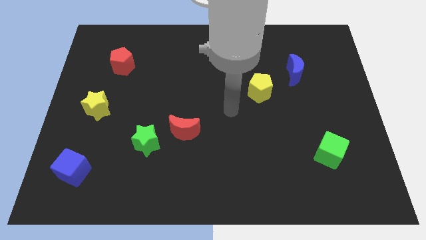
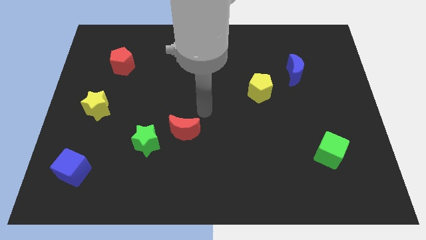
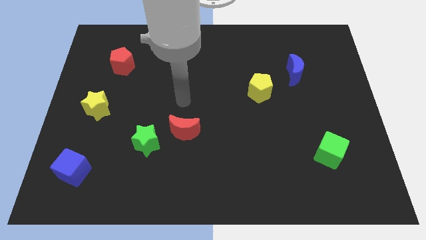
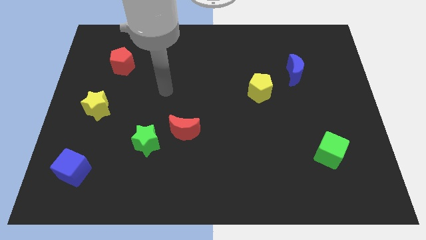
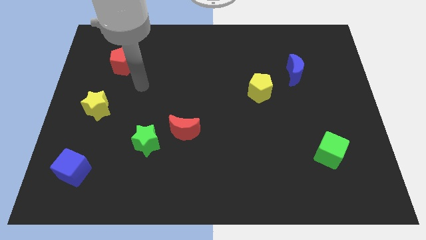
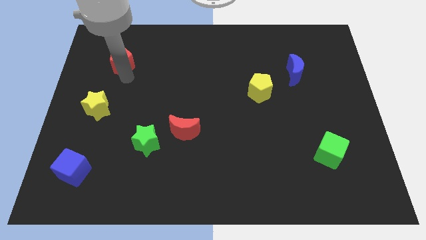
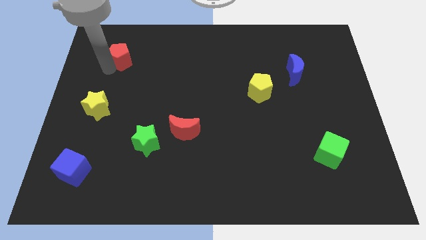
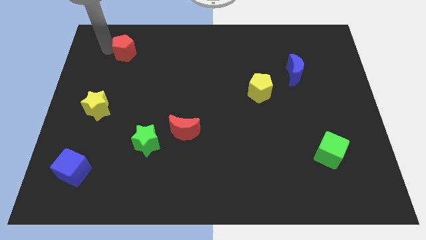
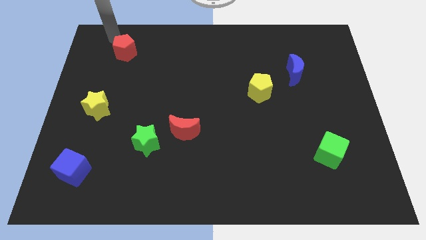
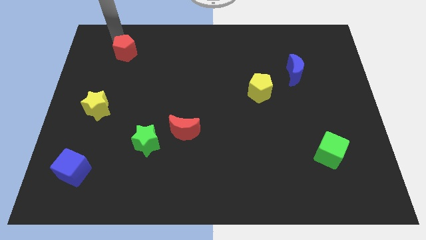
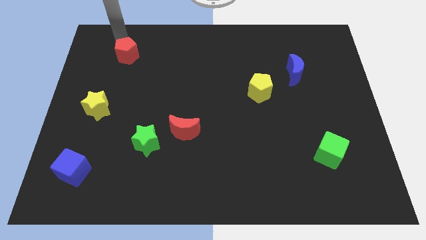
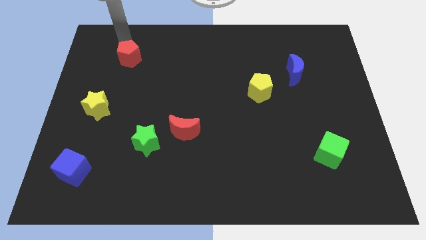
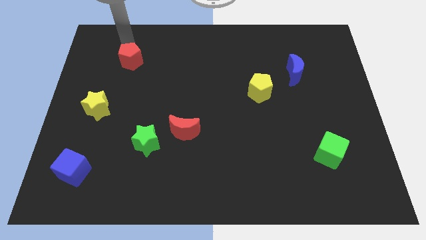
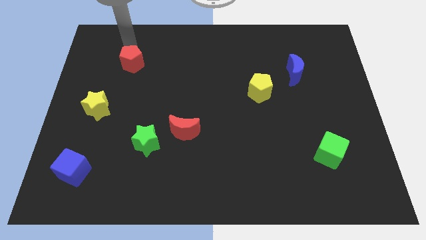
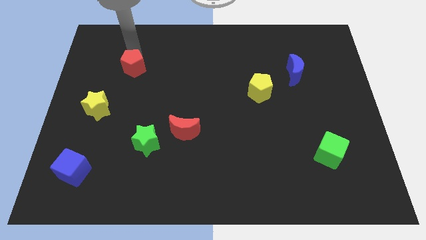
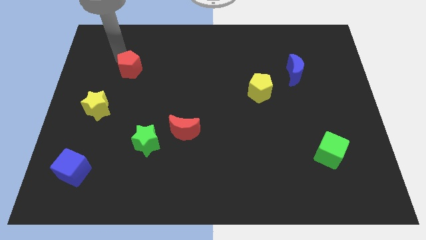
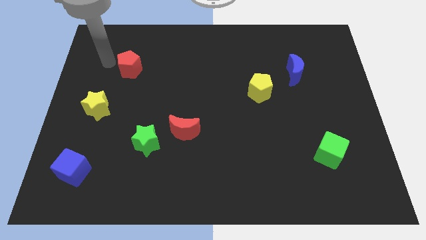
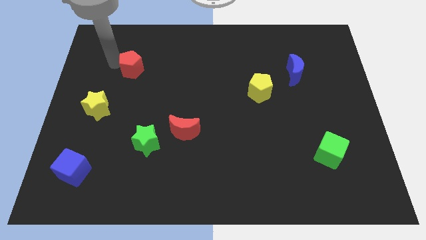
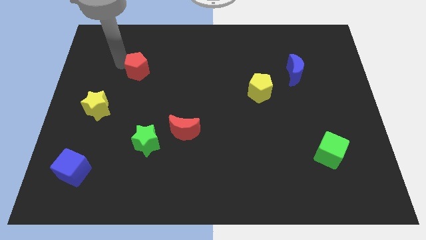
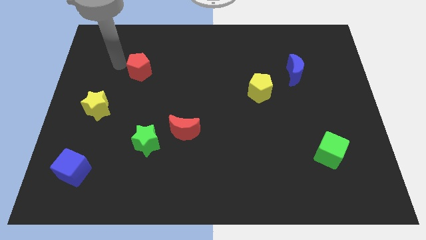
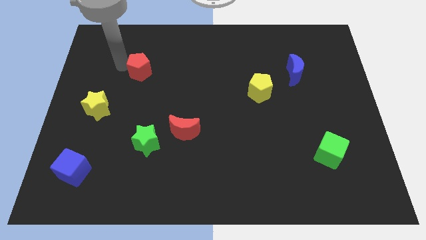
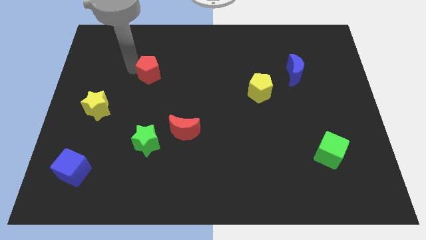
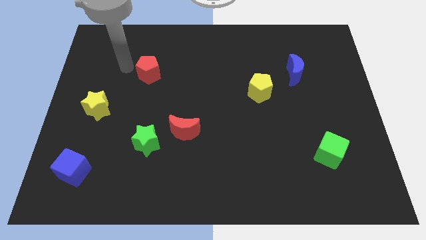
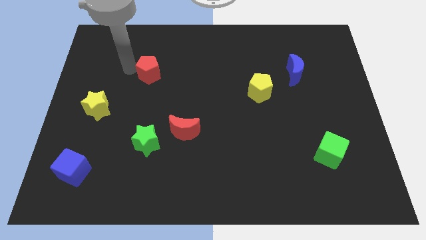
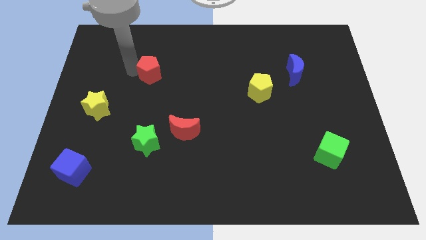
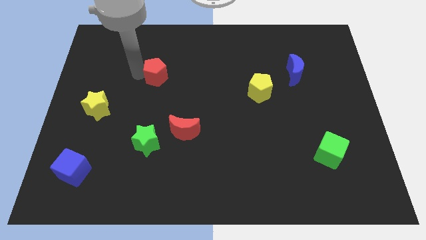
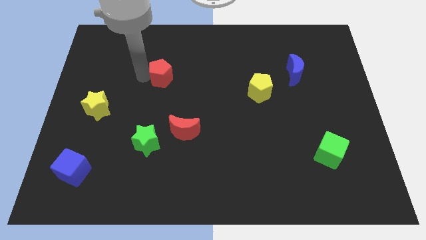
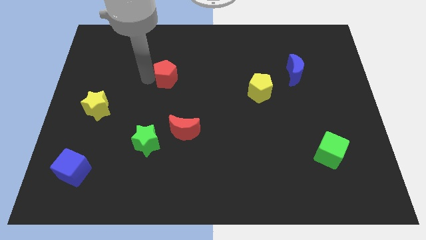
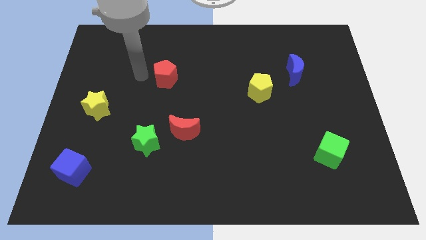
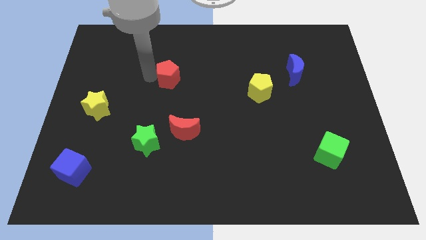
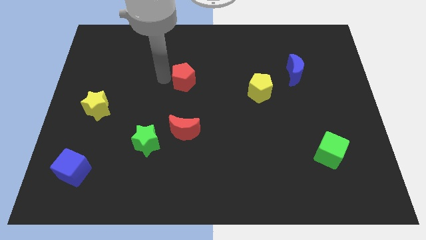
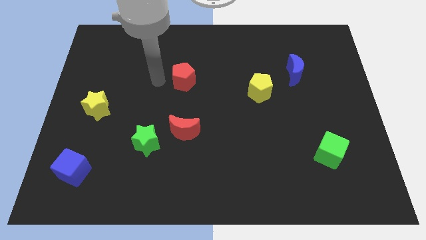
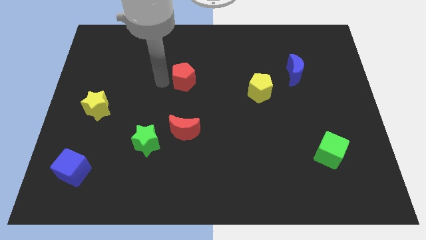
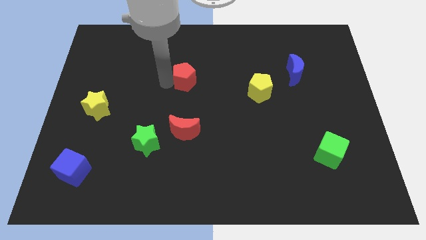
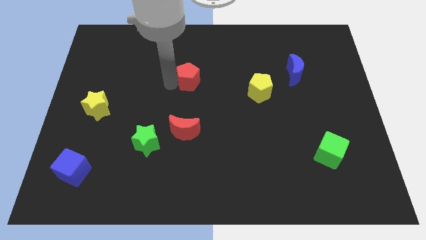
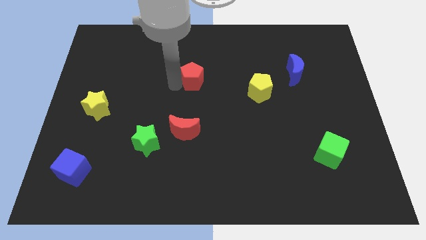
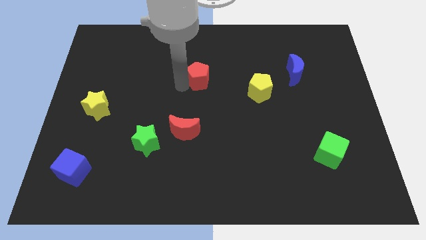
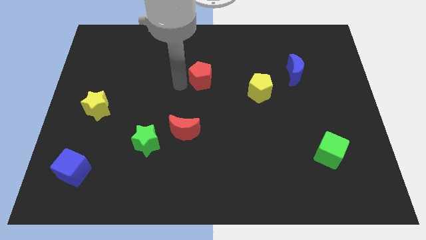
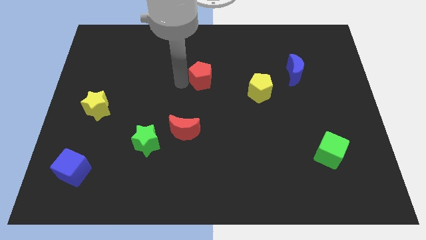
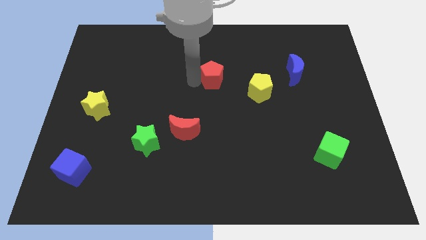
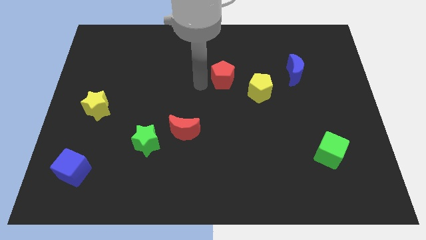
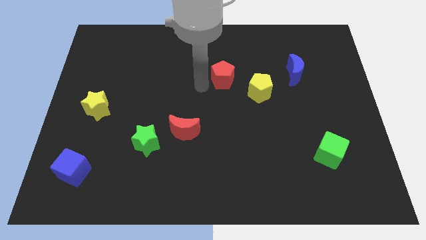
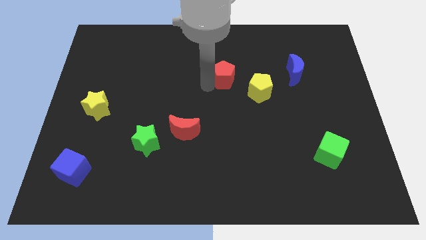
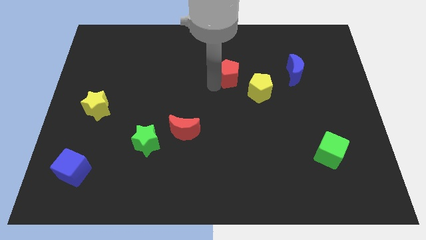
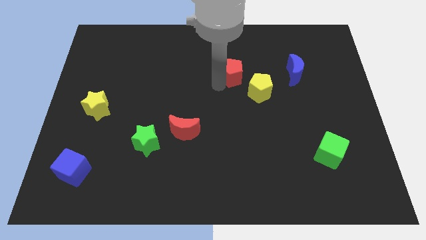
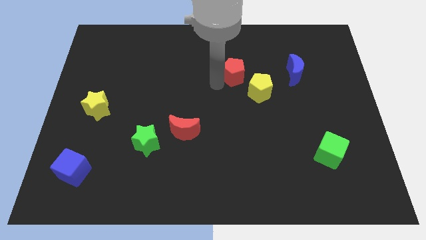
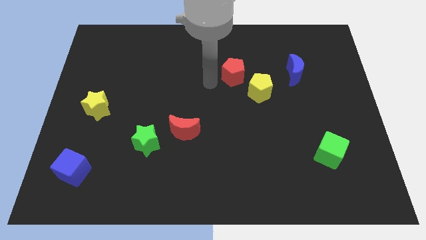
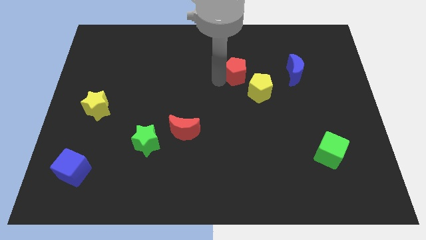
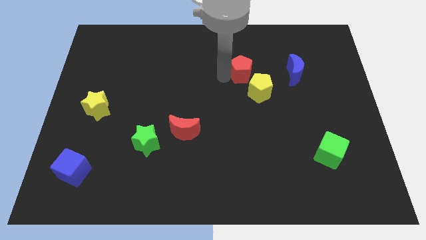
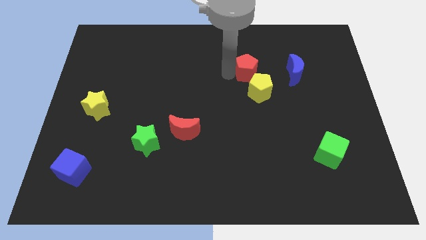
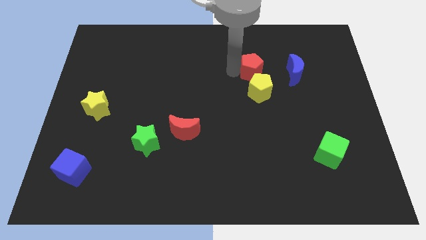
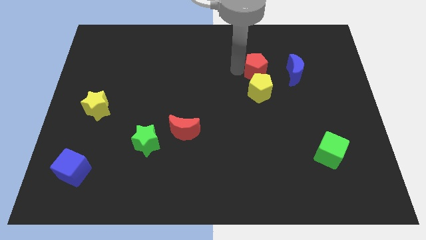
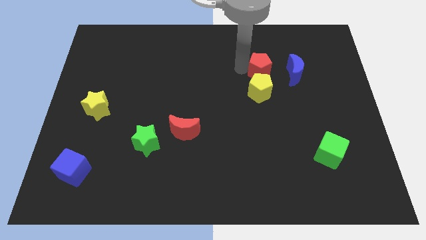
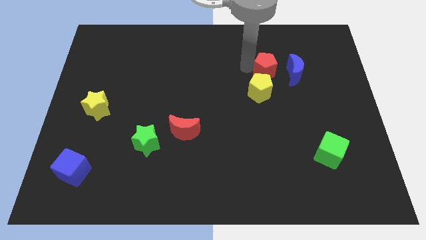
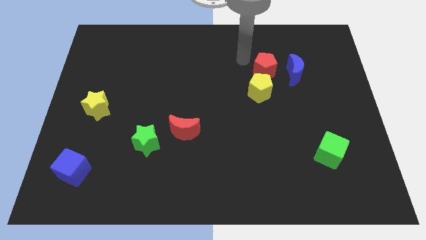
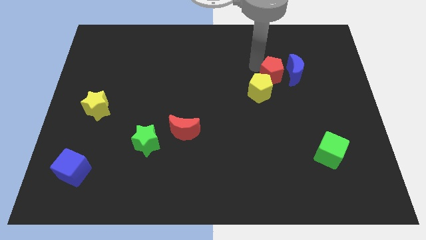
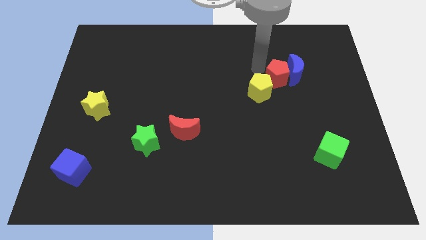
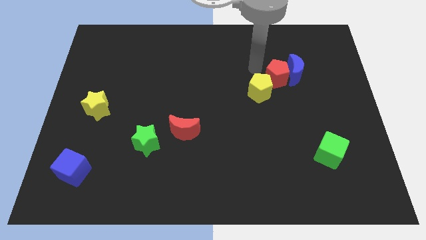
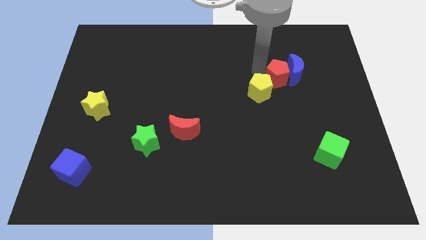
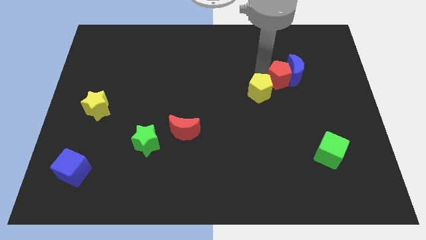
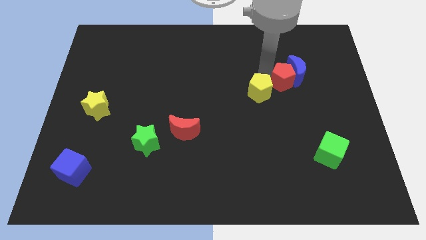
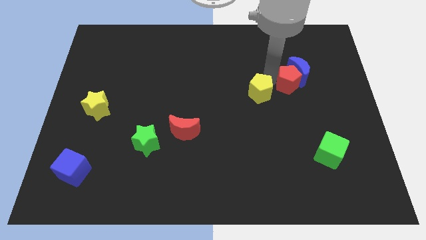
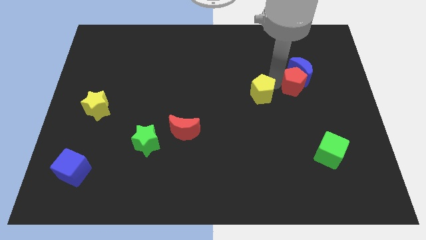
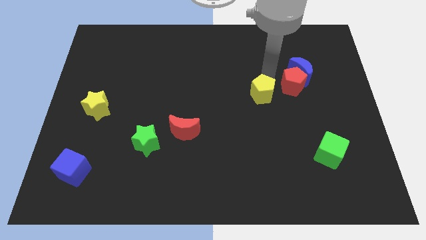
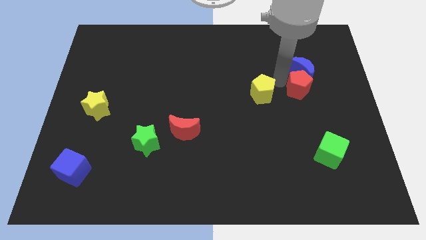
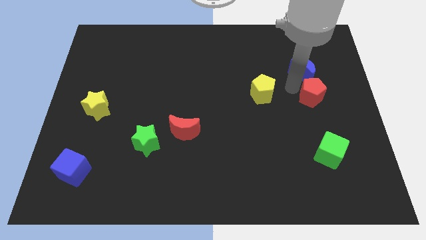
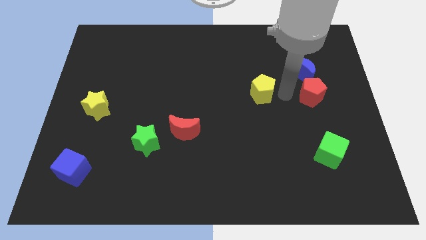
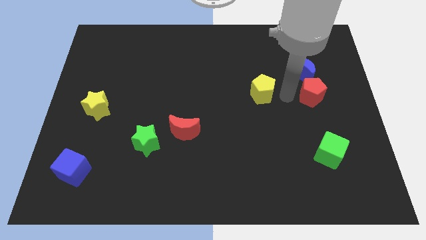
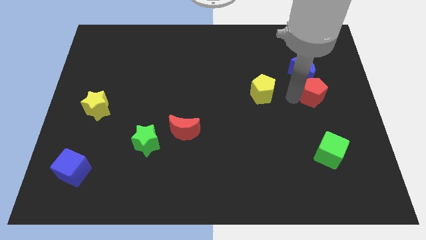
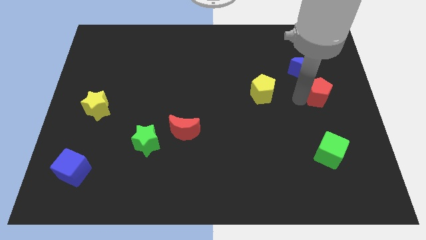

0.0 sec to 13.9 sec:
push the red pentagon to the center right

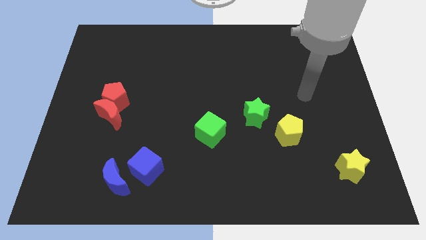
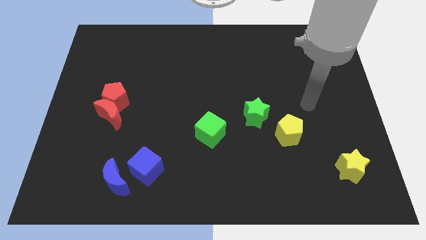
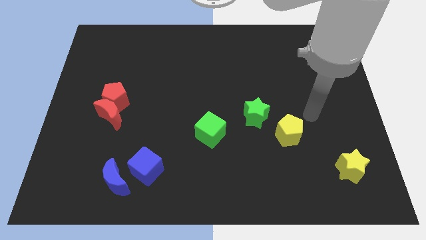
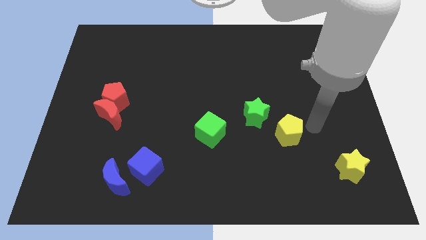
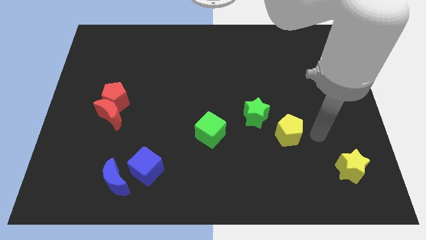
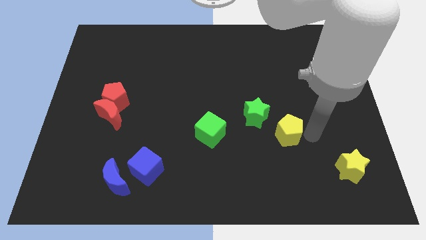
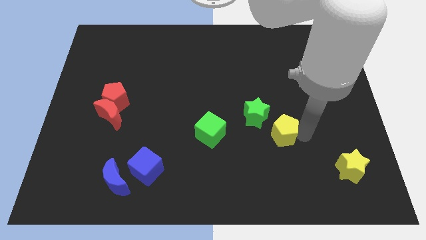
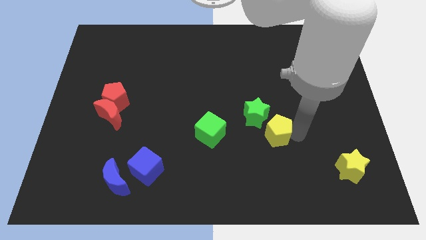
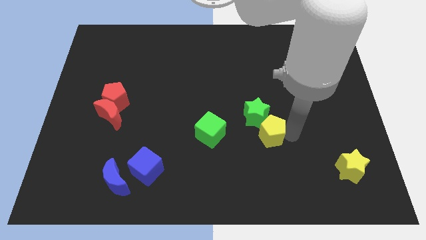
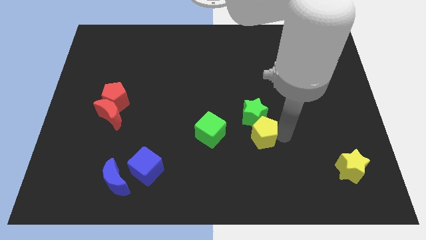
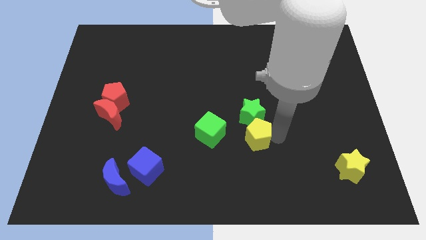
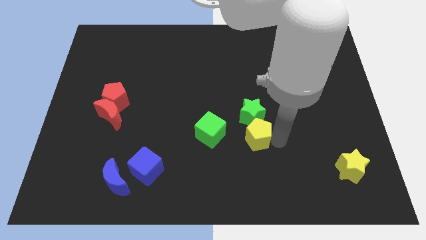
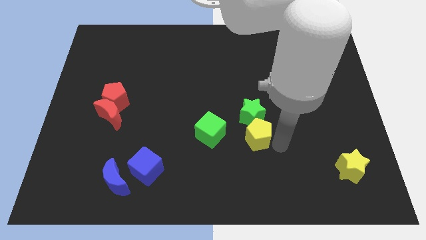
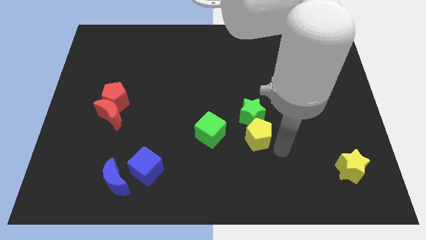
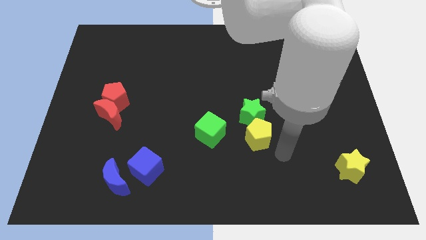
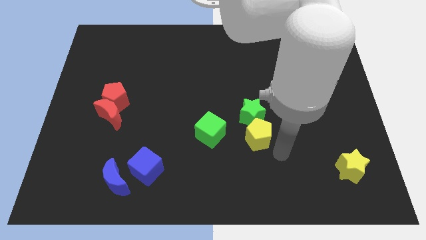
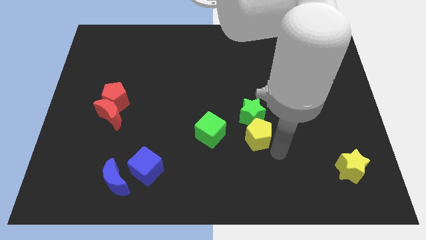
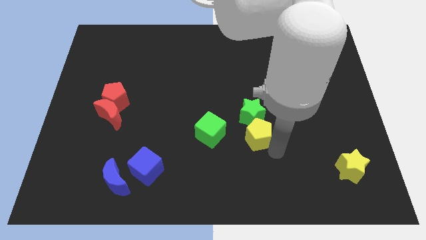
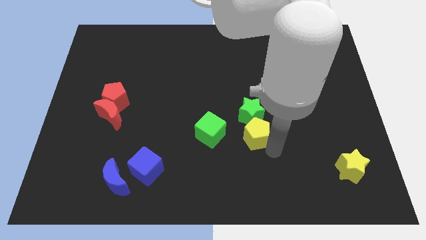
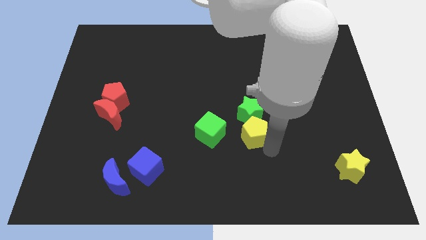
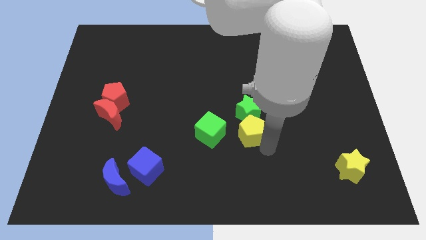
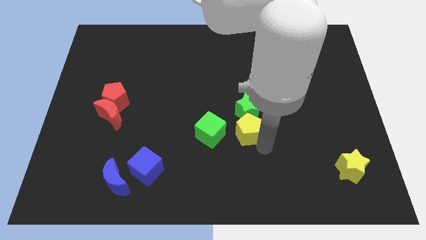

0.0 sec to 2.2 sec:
move the yellow pentagon to the middle
